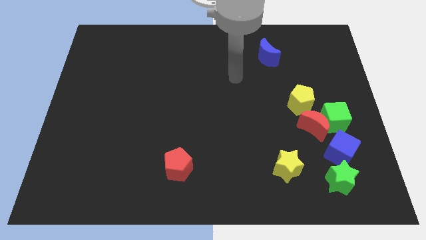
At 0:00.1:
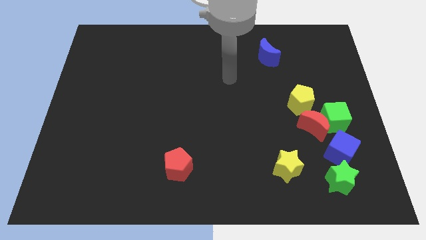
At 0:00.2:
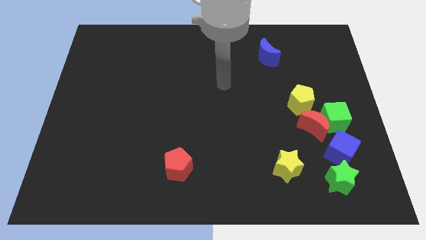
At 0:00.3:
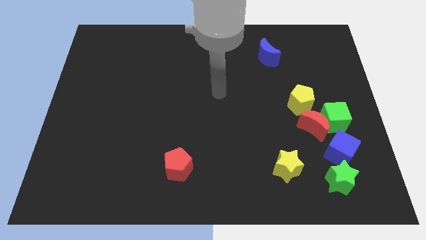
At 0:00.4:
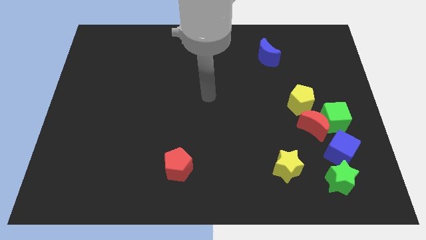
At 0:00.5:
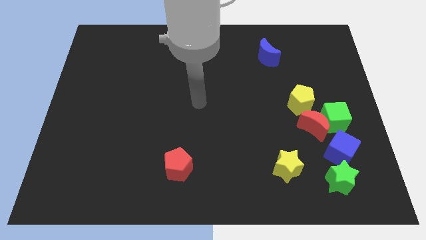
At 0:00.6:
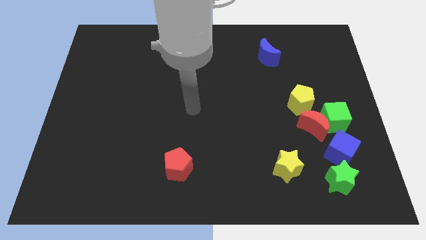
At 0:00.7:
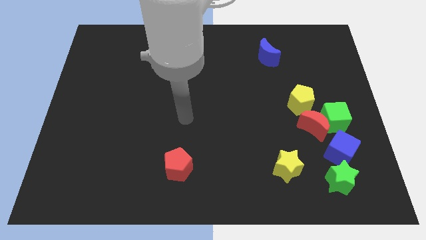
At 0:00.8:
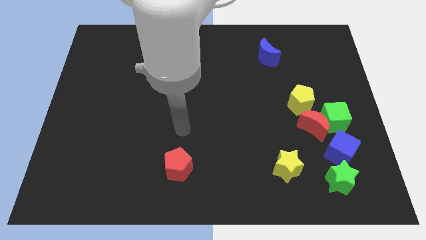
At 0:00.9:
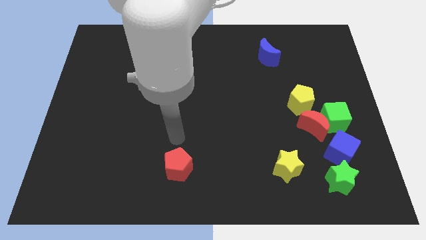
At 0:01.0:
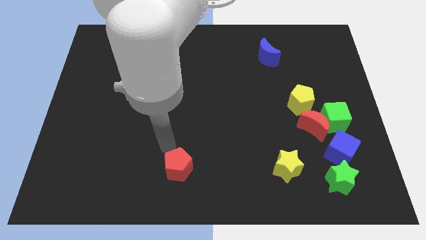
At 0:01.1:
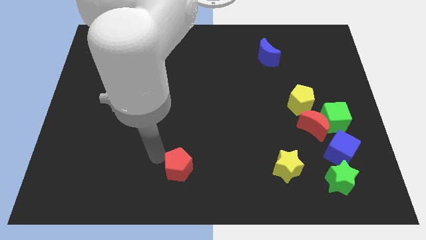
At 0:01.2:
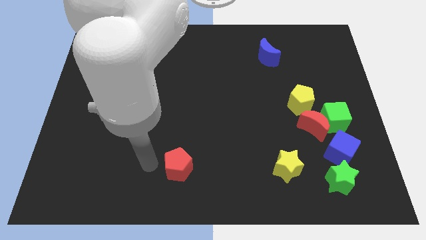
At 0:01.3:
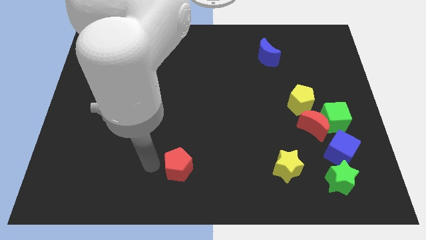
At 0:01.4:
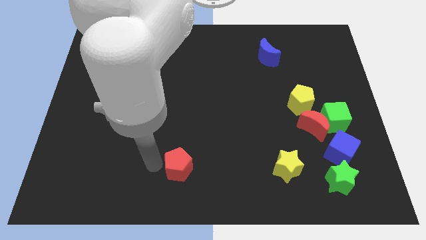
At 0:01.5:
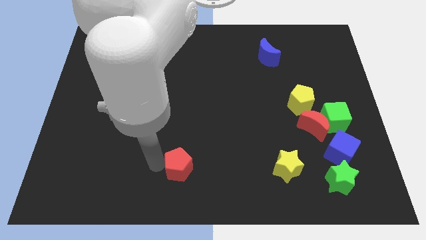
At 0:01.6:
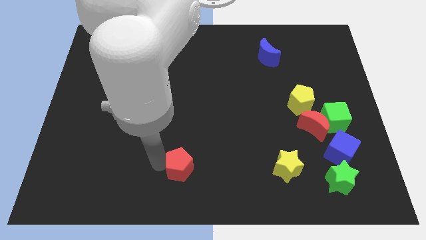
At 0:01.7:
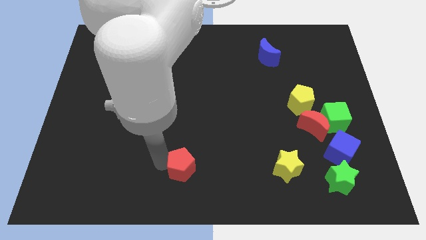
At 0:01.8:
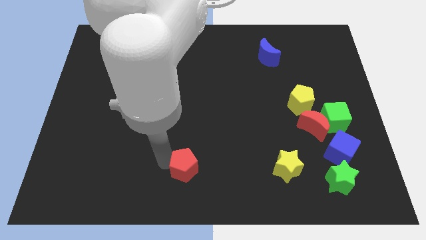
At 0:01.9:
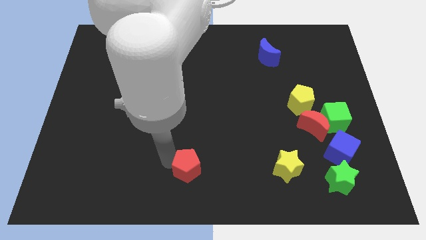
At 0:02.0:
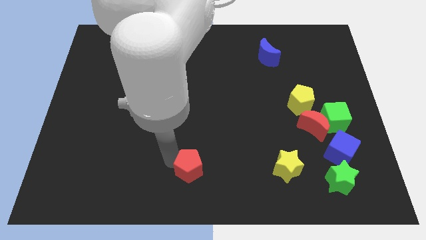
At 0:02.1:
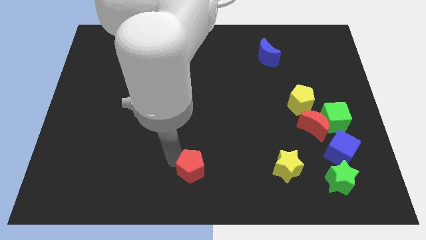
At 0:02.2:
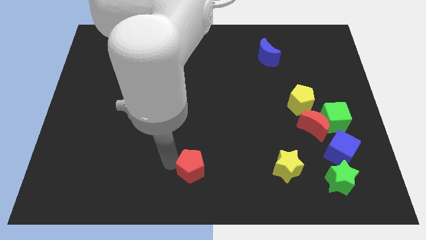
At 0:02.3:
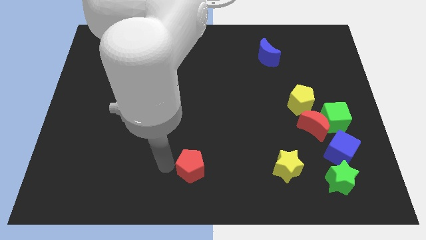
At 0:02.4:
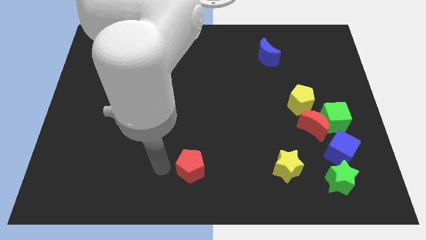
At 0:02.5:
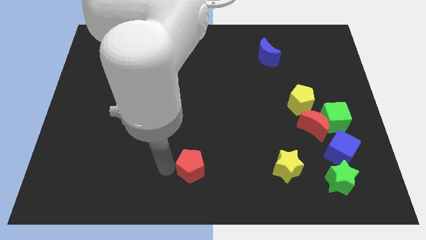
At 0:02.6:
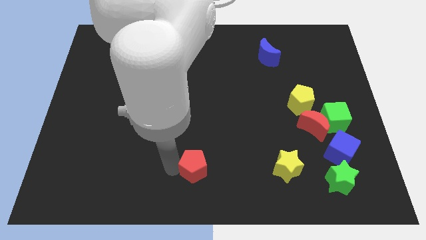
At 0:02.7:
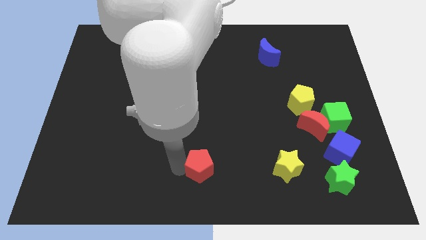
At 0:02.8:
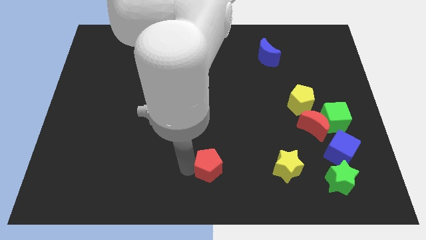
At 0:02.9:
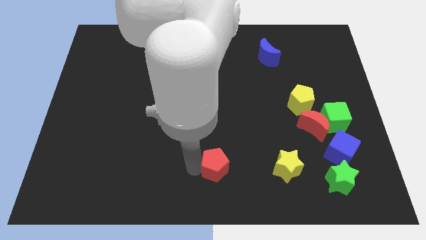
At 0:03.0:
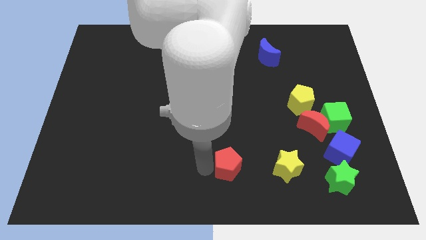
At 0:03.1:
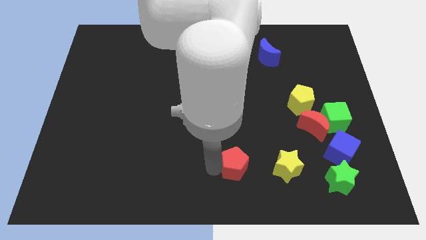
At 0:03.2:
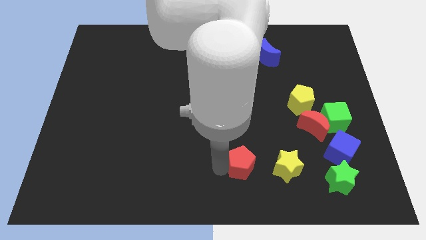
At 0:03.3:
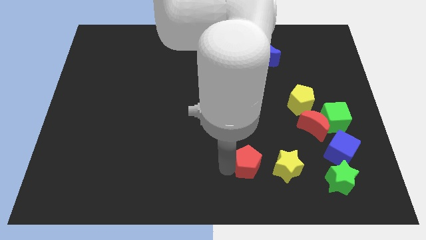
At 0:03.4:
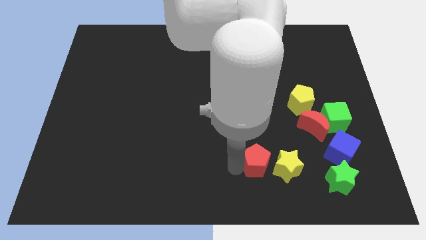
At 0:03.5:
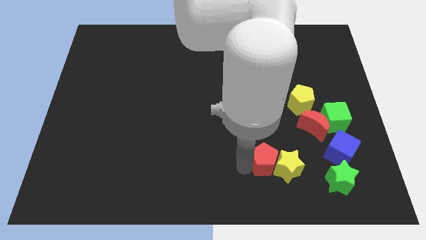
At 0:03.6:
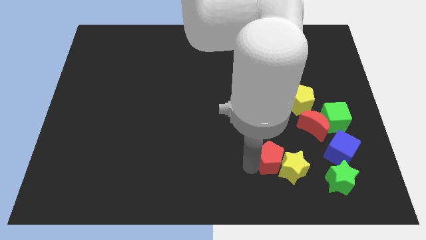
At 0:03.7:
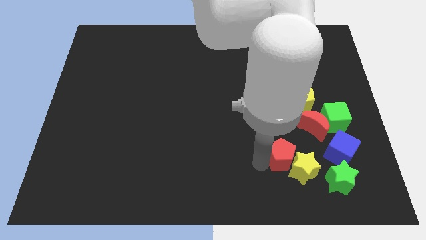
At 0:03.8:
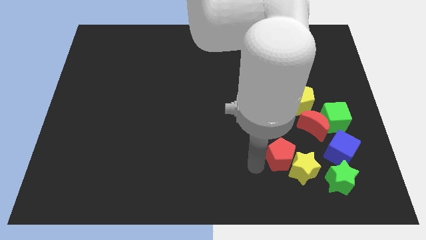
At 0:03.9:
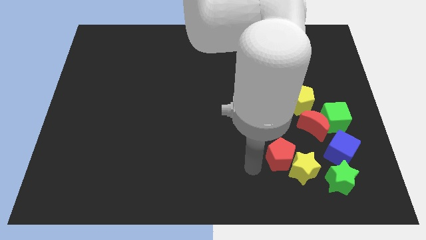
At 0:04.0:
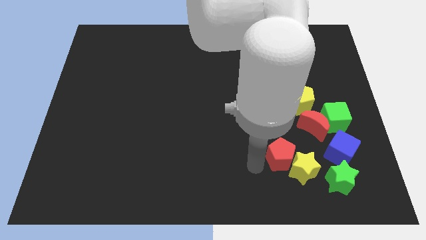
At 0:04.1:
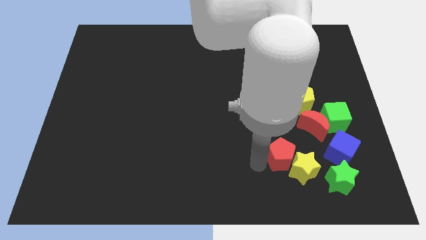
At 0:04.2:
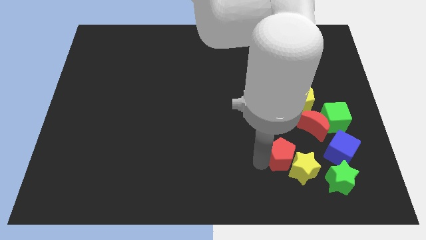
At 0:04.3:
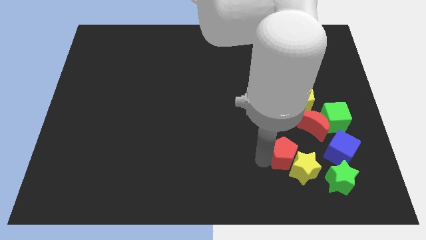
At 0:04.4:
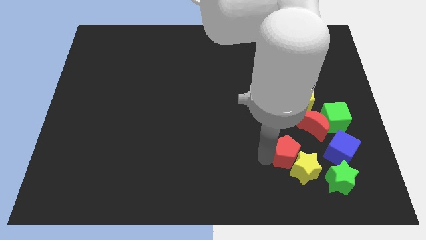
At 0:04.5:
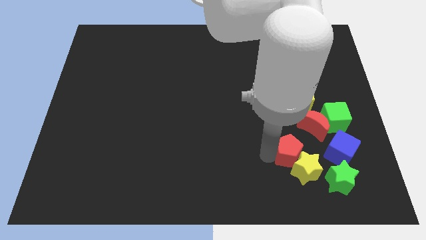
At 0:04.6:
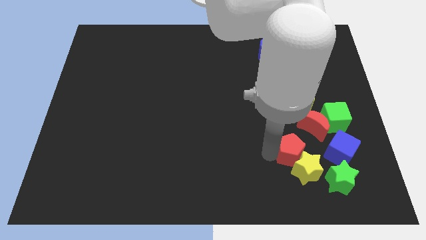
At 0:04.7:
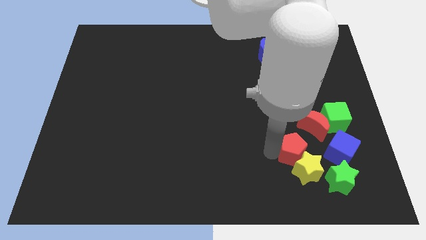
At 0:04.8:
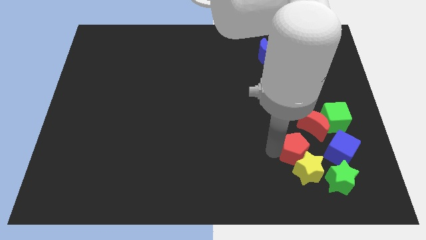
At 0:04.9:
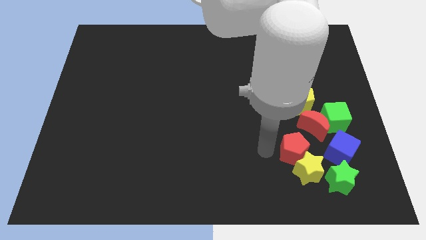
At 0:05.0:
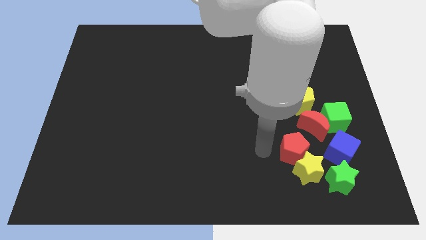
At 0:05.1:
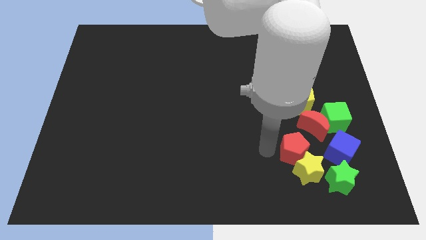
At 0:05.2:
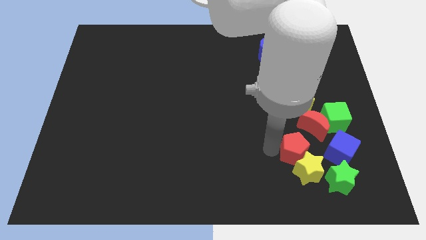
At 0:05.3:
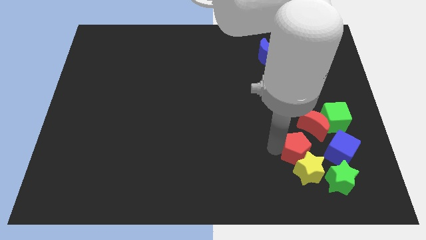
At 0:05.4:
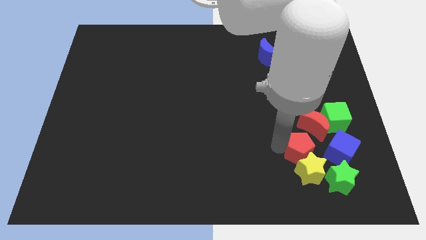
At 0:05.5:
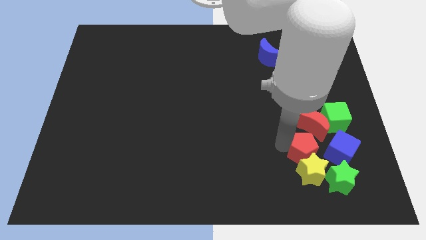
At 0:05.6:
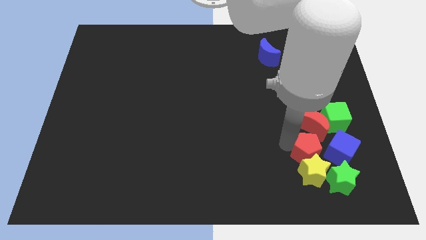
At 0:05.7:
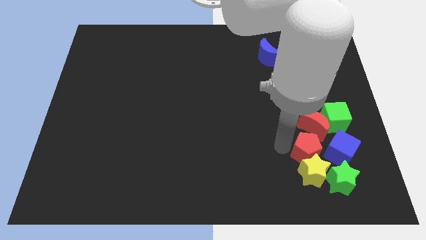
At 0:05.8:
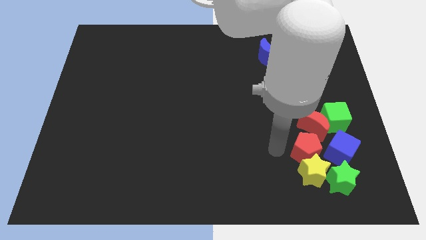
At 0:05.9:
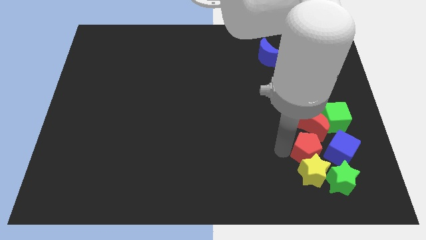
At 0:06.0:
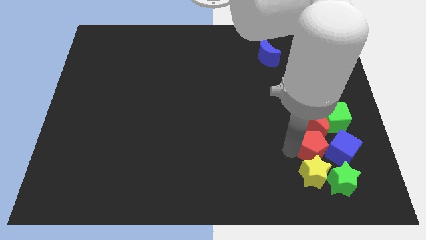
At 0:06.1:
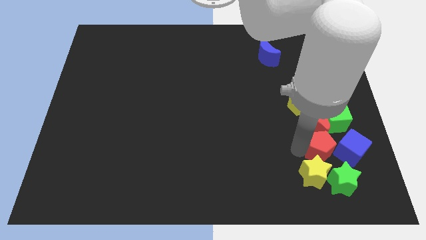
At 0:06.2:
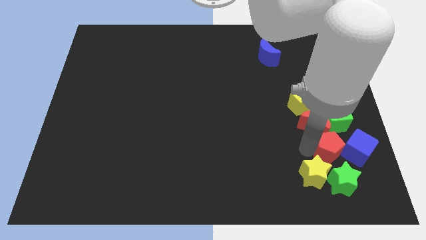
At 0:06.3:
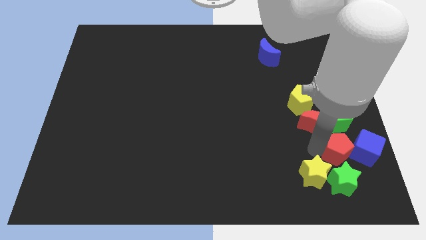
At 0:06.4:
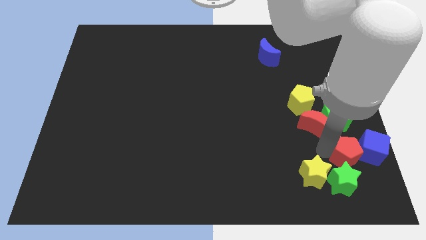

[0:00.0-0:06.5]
push the red pentagon next to the blue cube
